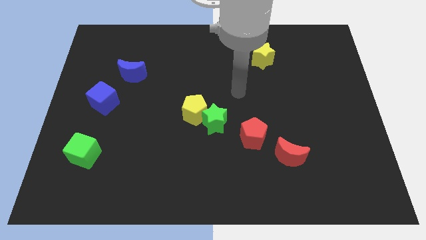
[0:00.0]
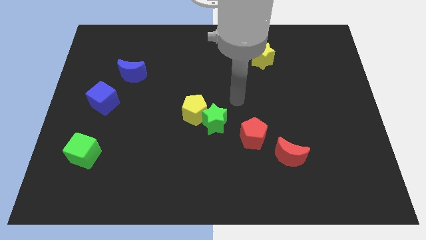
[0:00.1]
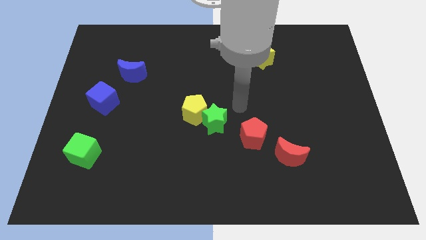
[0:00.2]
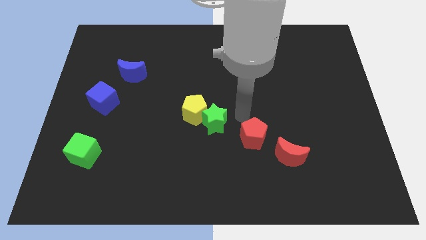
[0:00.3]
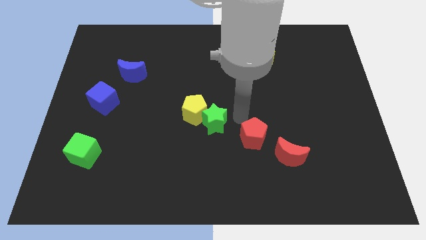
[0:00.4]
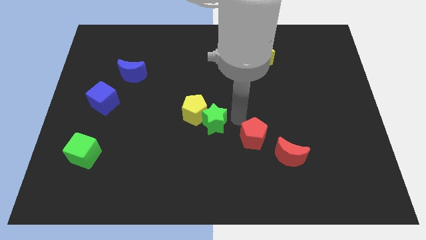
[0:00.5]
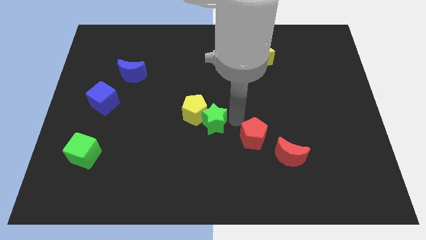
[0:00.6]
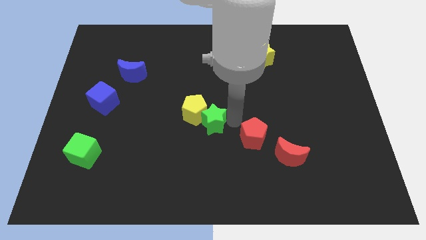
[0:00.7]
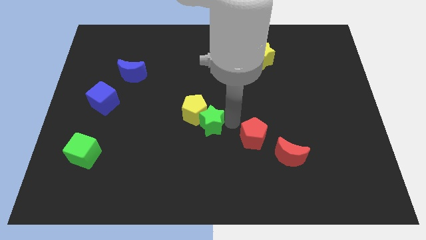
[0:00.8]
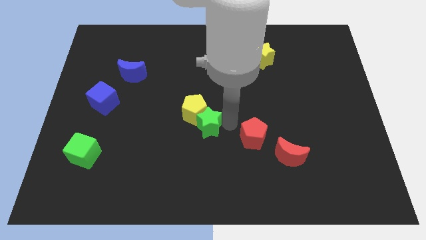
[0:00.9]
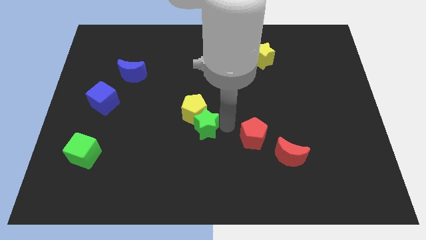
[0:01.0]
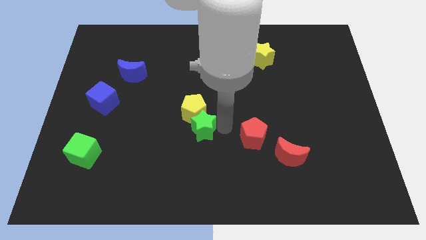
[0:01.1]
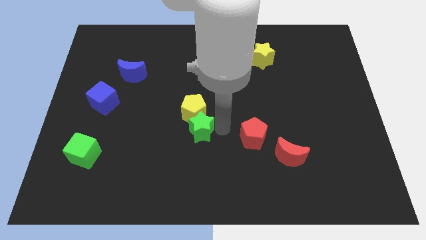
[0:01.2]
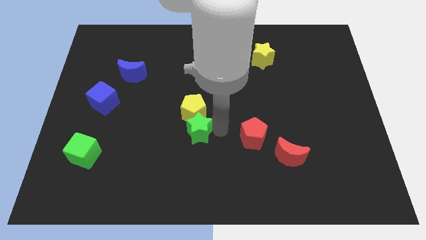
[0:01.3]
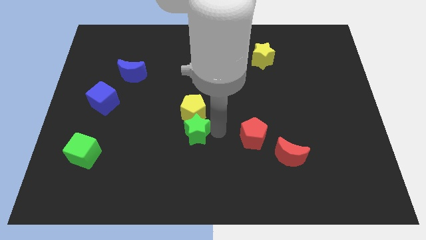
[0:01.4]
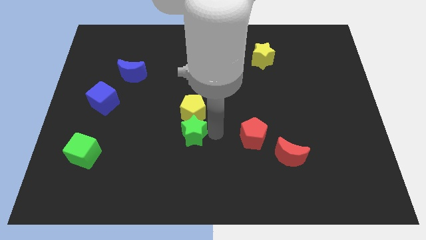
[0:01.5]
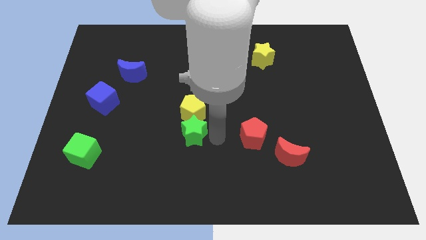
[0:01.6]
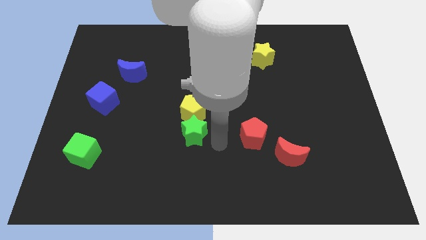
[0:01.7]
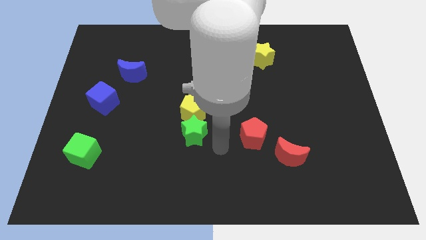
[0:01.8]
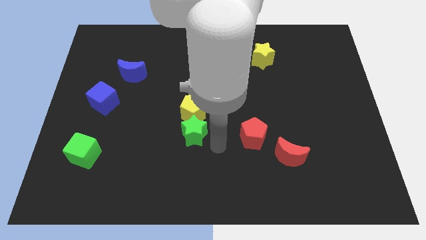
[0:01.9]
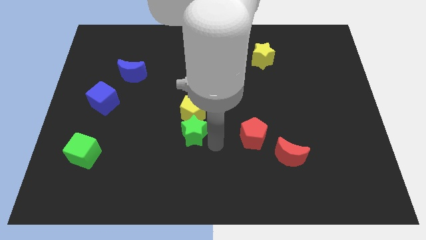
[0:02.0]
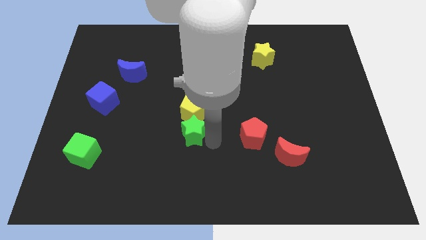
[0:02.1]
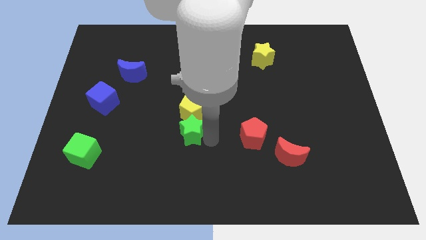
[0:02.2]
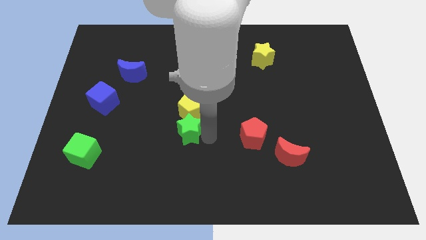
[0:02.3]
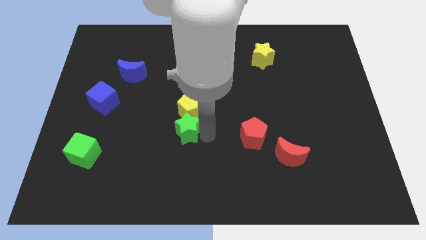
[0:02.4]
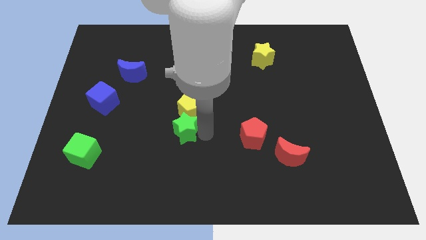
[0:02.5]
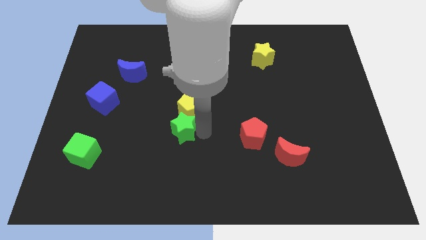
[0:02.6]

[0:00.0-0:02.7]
push the green star to the left slightly

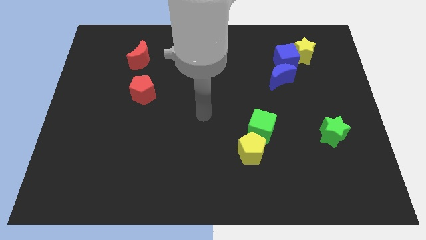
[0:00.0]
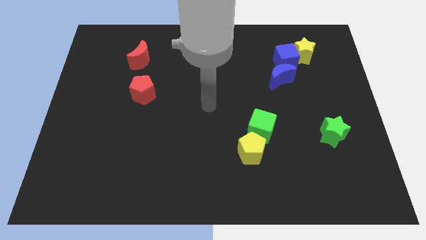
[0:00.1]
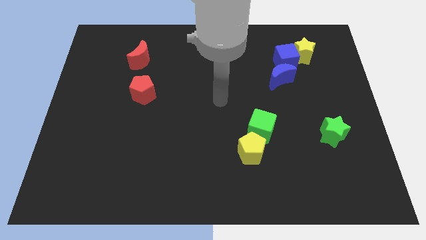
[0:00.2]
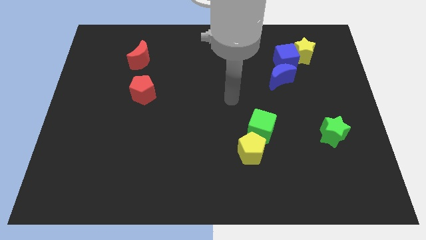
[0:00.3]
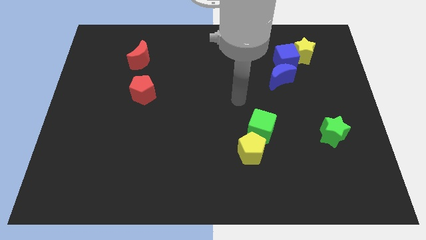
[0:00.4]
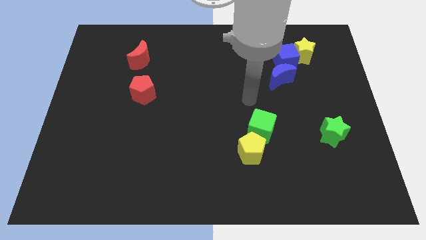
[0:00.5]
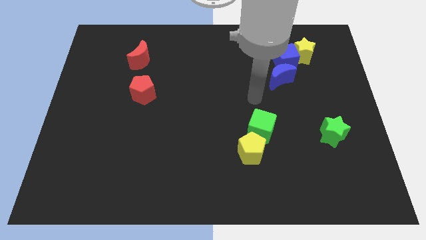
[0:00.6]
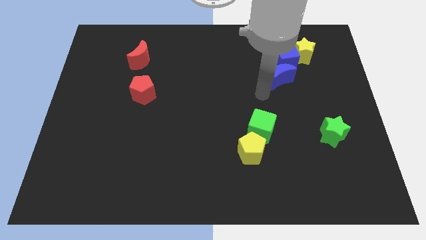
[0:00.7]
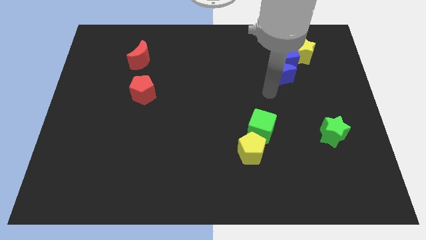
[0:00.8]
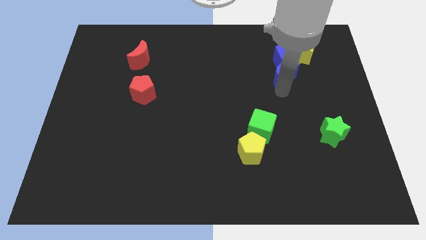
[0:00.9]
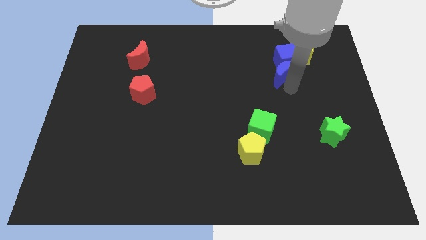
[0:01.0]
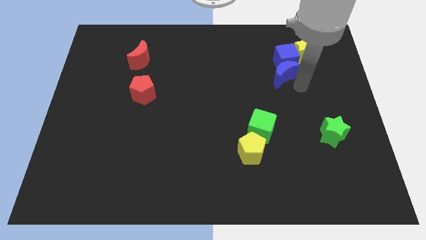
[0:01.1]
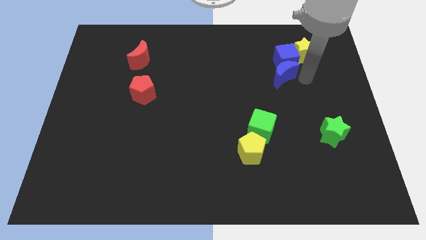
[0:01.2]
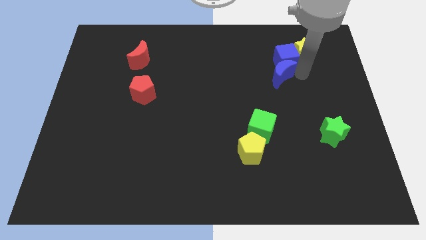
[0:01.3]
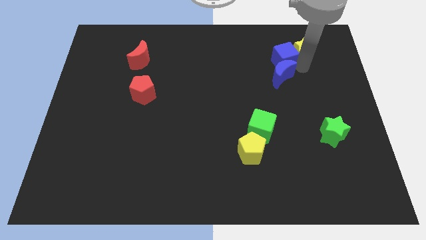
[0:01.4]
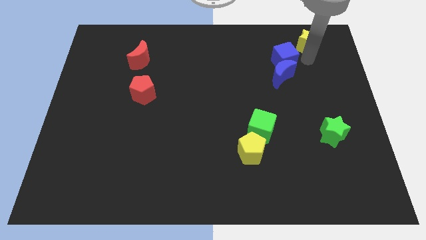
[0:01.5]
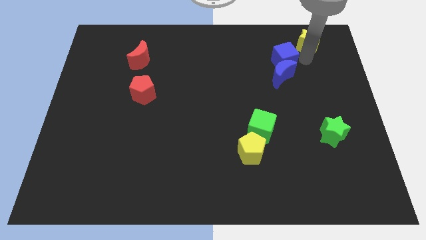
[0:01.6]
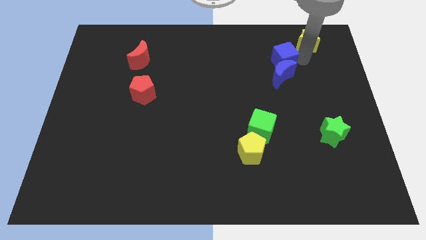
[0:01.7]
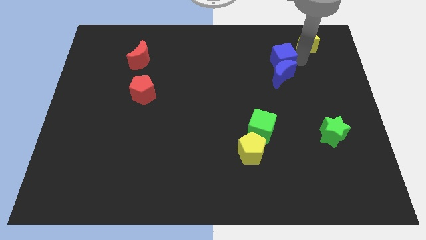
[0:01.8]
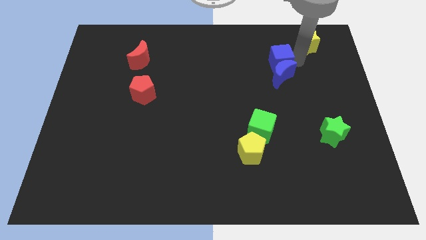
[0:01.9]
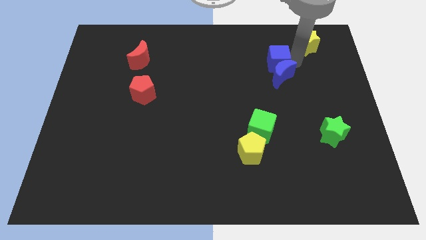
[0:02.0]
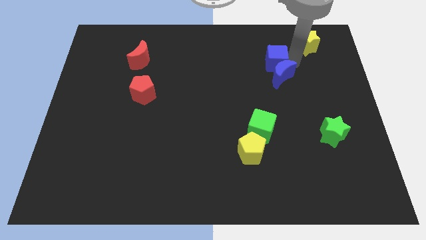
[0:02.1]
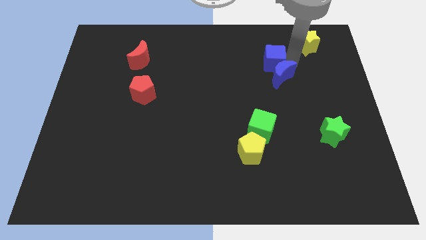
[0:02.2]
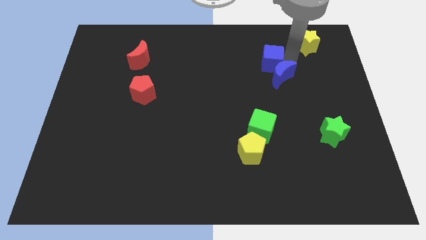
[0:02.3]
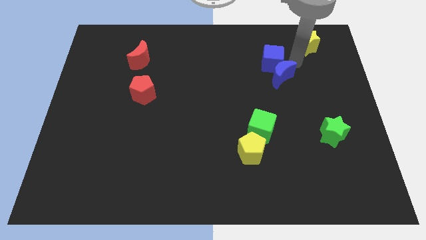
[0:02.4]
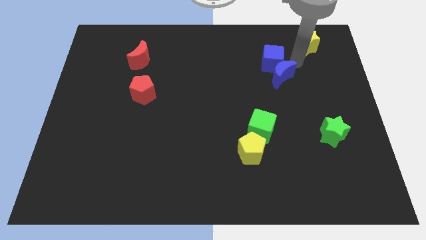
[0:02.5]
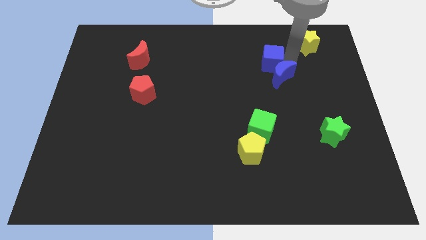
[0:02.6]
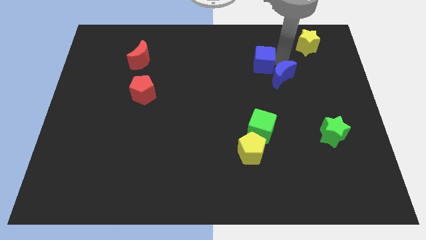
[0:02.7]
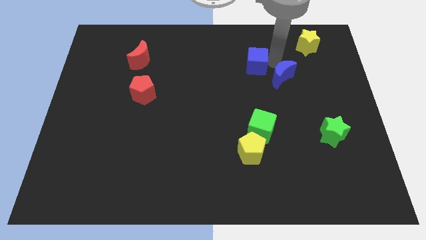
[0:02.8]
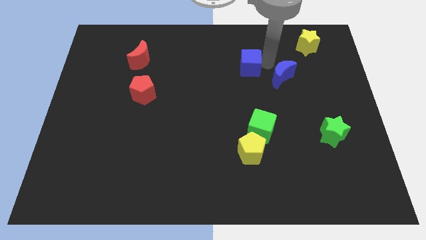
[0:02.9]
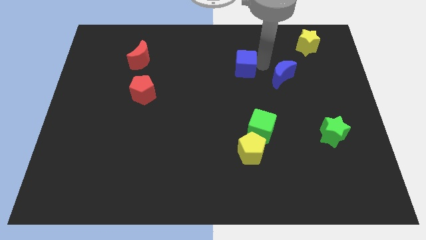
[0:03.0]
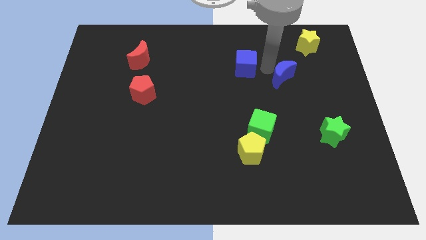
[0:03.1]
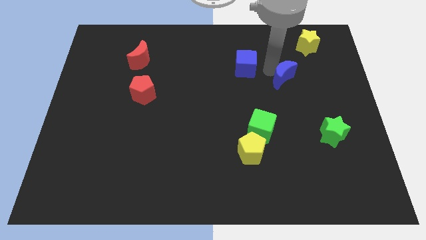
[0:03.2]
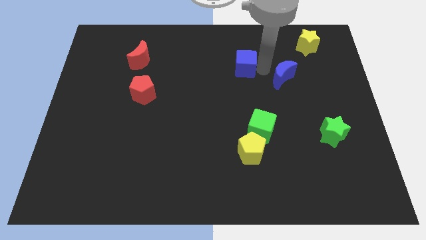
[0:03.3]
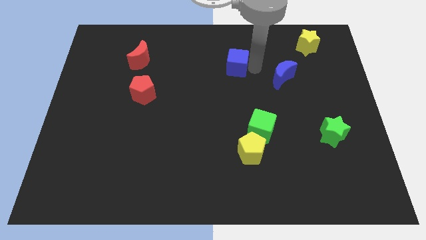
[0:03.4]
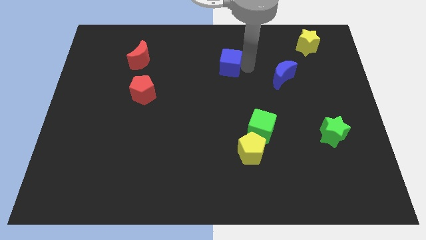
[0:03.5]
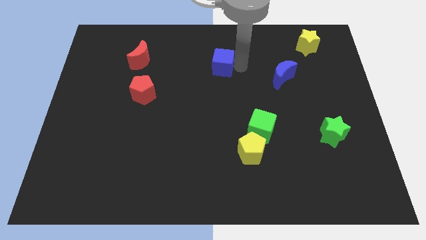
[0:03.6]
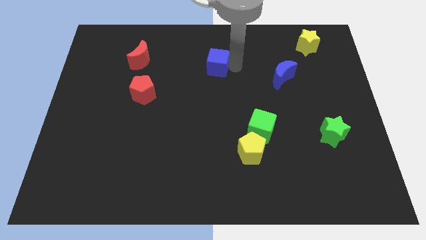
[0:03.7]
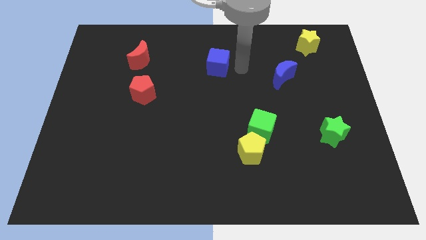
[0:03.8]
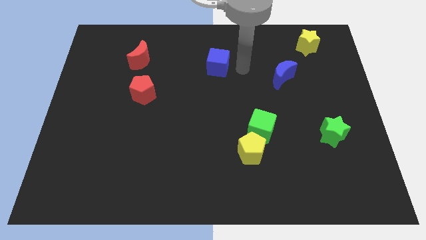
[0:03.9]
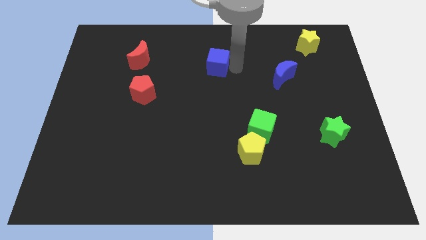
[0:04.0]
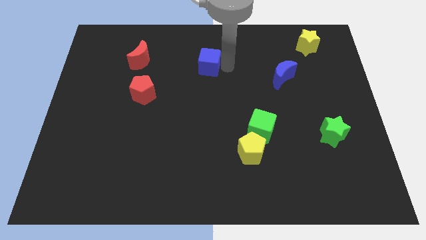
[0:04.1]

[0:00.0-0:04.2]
slide the blue cube left

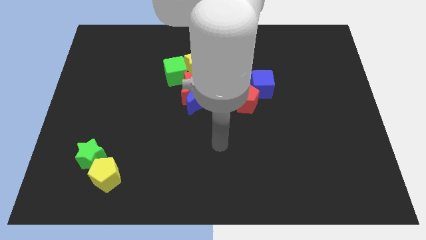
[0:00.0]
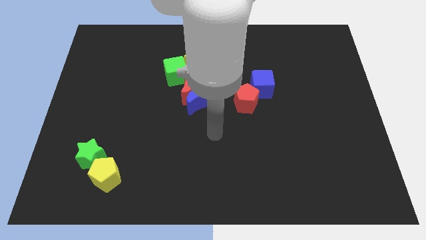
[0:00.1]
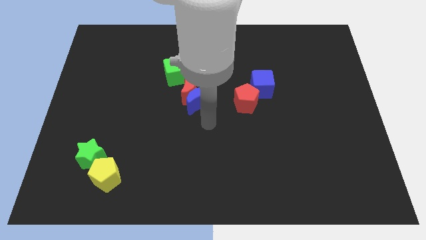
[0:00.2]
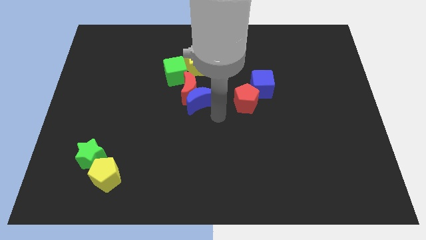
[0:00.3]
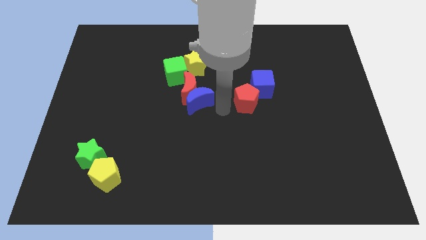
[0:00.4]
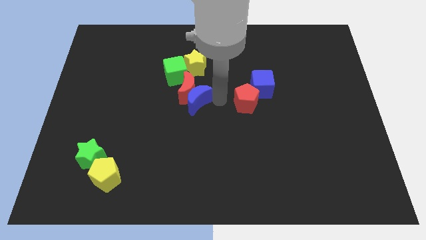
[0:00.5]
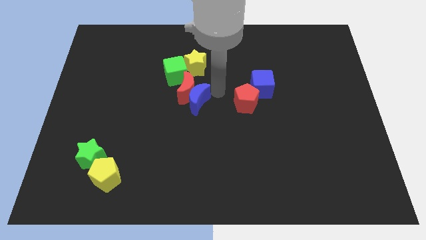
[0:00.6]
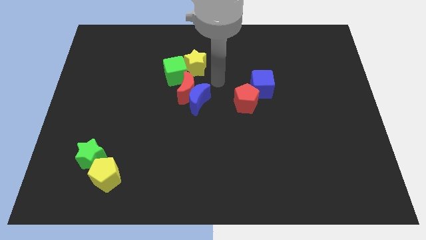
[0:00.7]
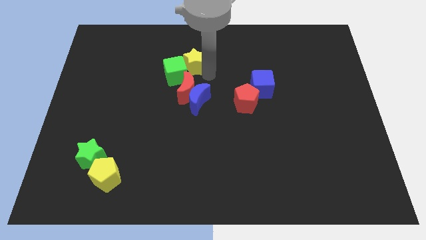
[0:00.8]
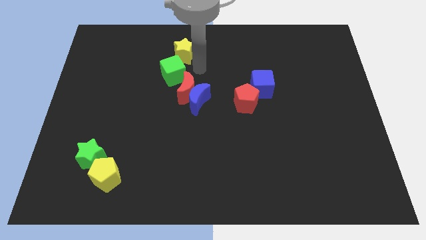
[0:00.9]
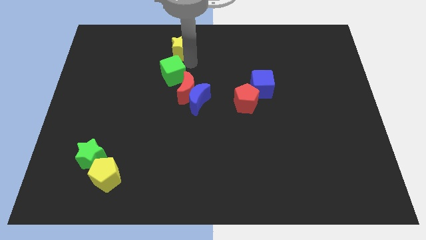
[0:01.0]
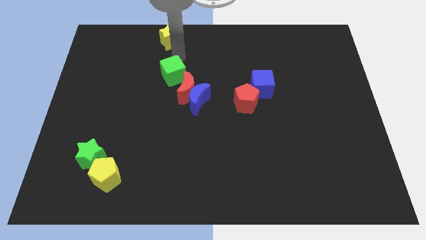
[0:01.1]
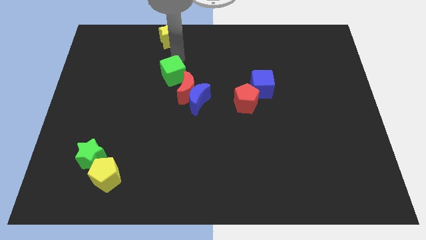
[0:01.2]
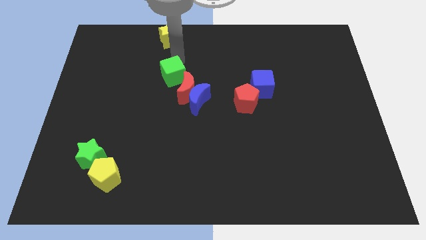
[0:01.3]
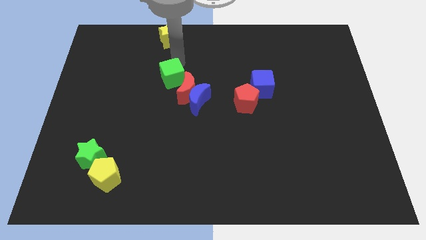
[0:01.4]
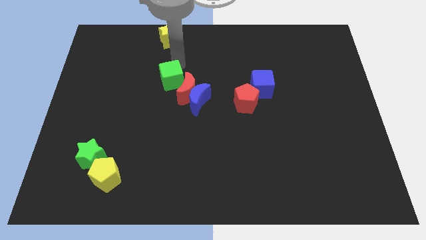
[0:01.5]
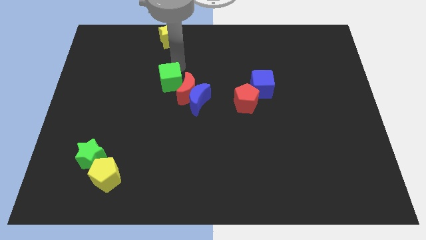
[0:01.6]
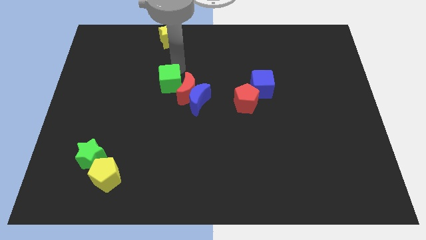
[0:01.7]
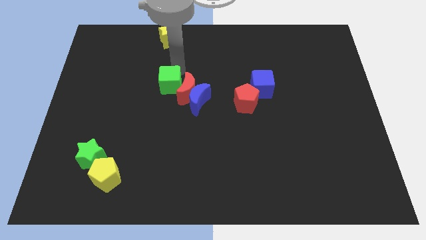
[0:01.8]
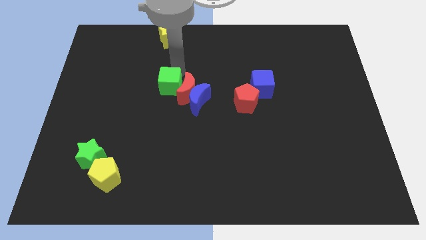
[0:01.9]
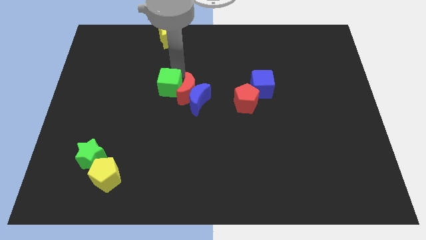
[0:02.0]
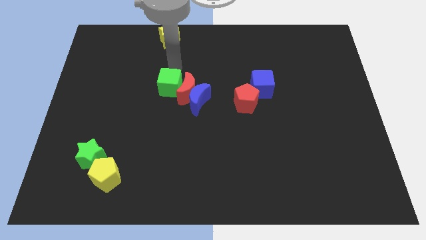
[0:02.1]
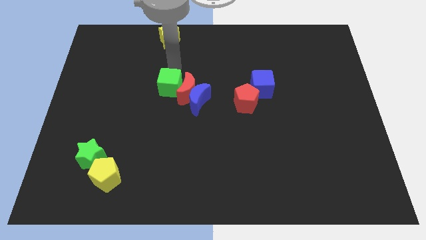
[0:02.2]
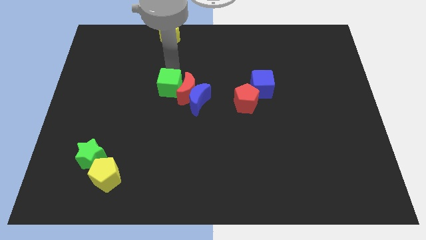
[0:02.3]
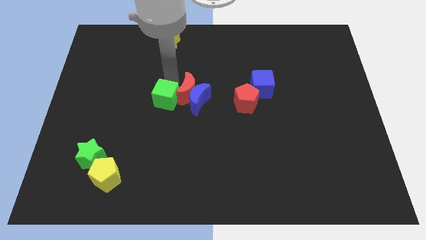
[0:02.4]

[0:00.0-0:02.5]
slide the green cube down a little bit
